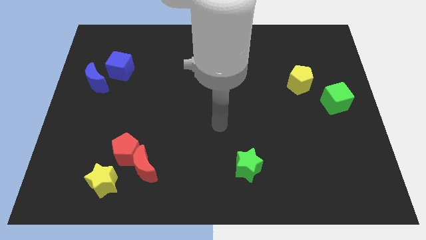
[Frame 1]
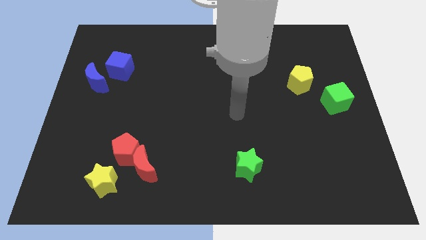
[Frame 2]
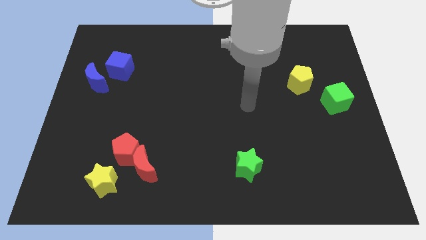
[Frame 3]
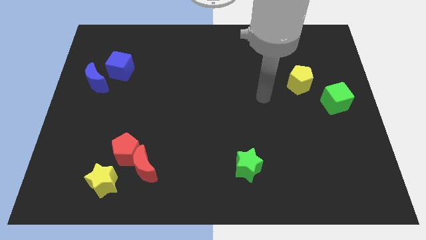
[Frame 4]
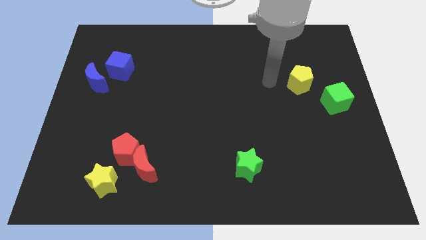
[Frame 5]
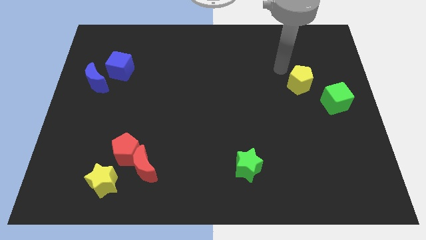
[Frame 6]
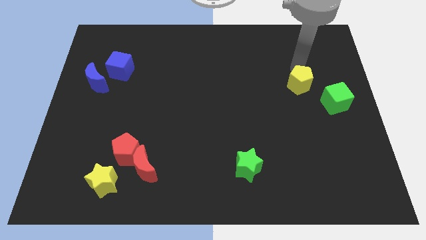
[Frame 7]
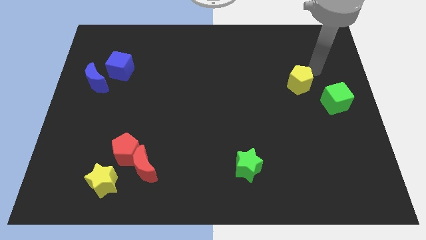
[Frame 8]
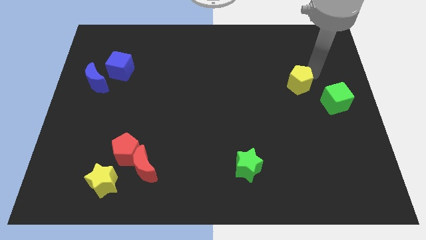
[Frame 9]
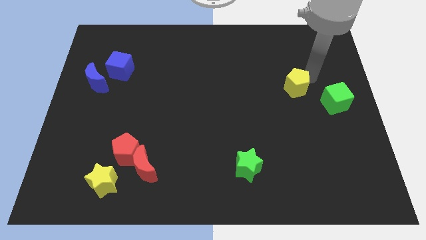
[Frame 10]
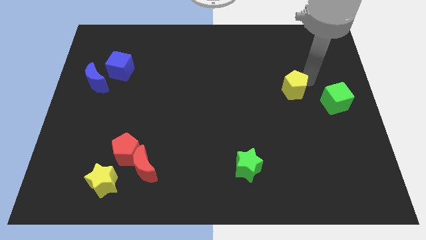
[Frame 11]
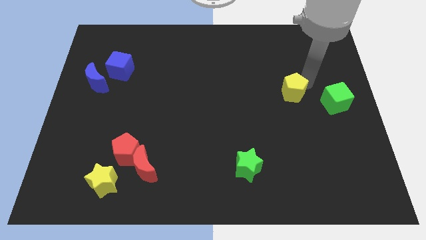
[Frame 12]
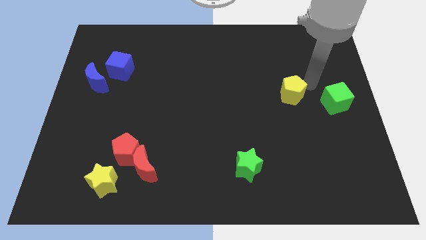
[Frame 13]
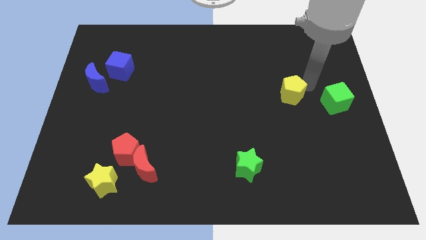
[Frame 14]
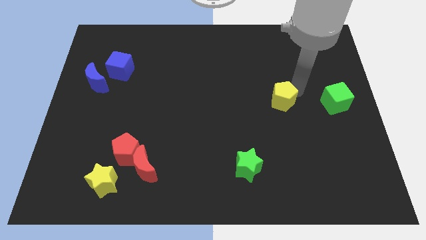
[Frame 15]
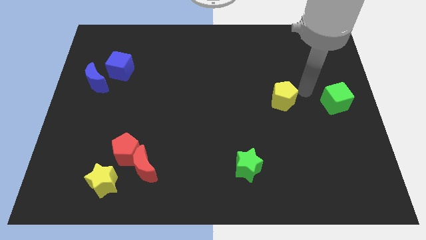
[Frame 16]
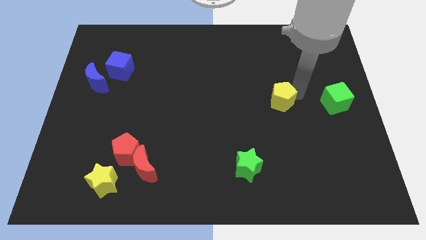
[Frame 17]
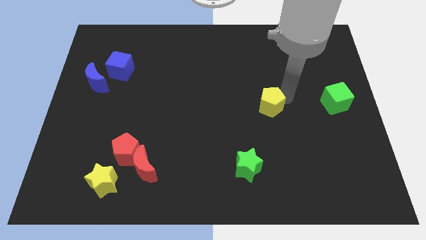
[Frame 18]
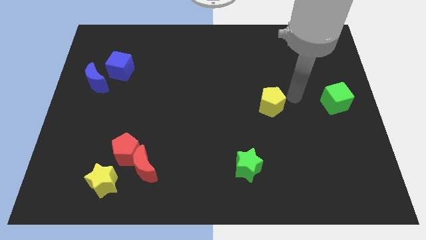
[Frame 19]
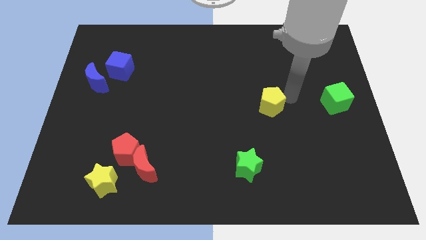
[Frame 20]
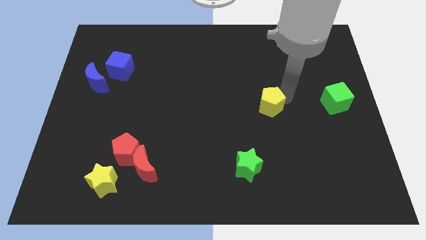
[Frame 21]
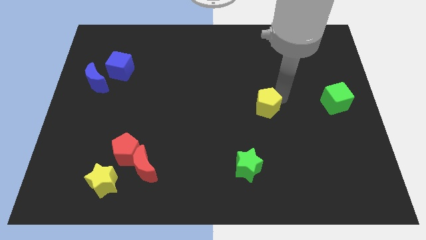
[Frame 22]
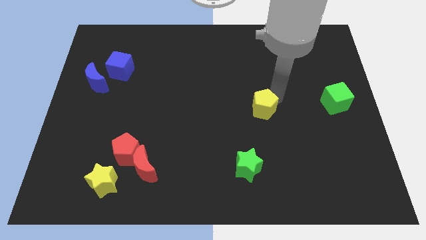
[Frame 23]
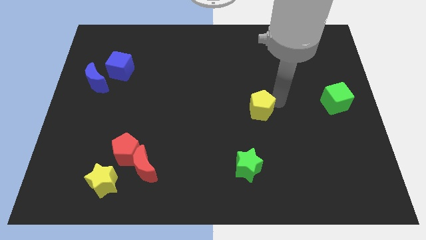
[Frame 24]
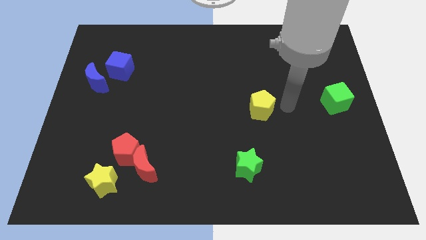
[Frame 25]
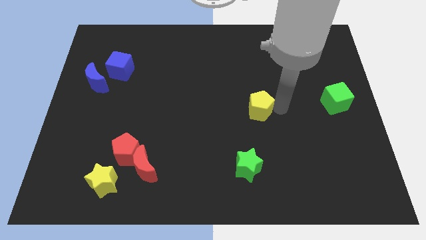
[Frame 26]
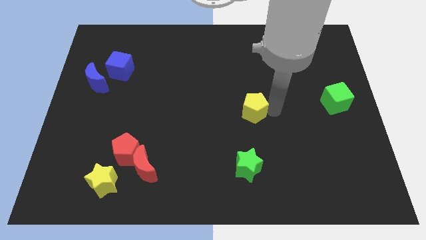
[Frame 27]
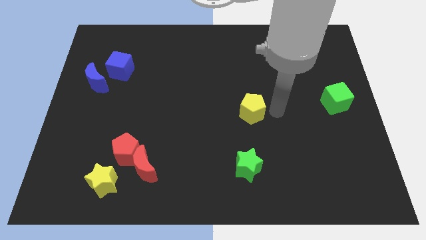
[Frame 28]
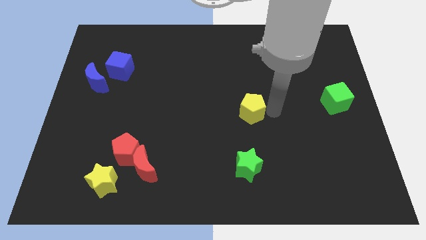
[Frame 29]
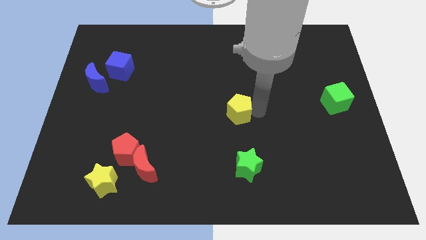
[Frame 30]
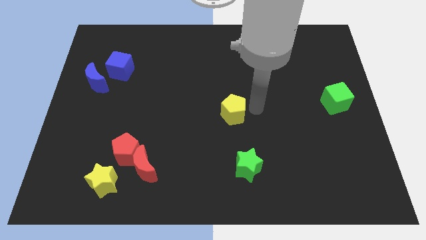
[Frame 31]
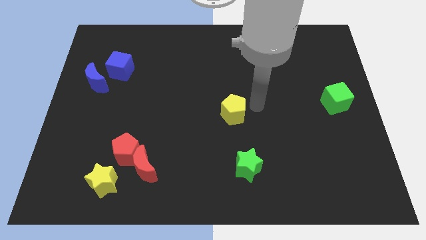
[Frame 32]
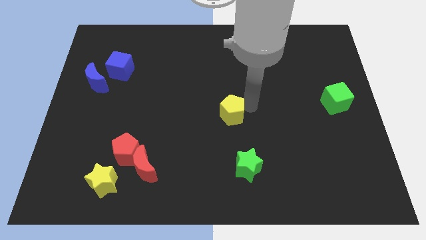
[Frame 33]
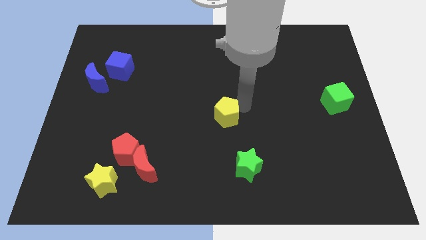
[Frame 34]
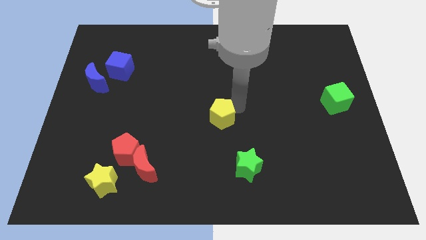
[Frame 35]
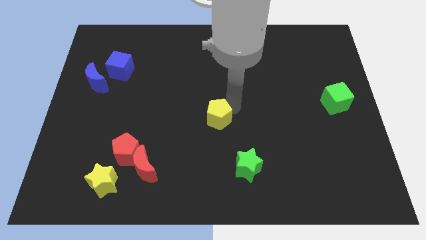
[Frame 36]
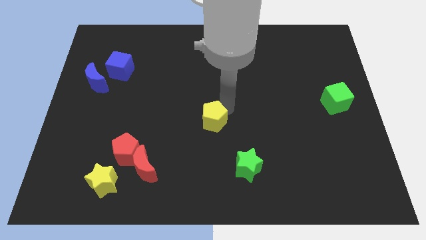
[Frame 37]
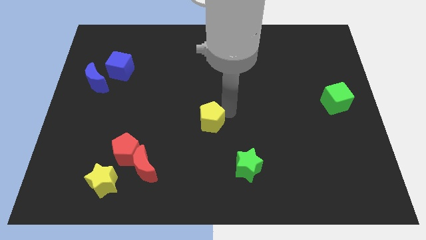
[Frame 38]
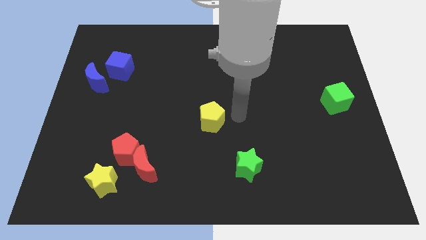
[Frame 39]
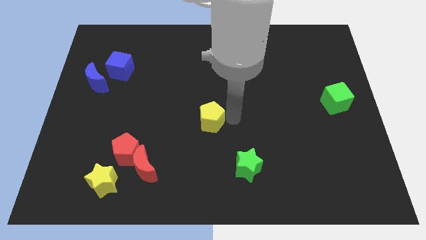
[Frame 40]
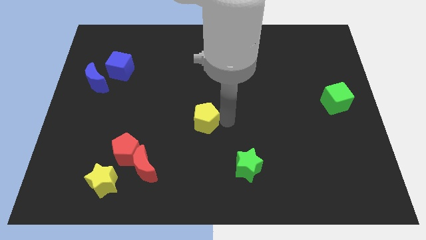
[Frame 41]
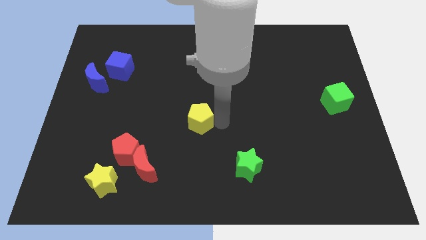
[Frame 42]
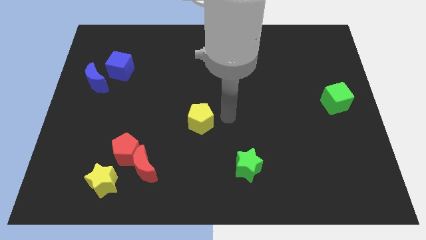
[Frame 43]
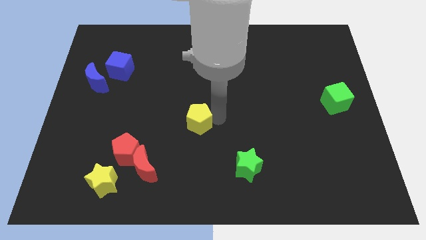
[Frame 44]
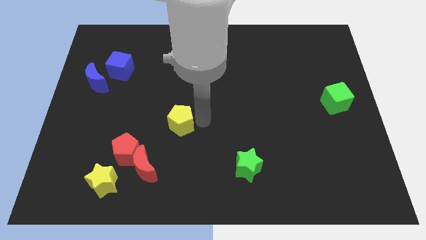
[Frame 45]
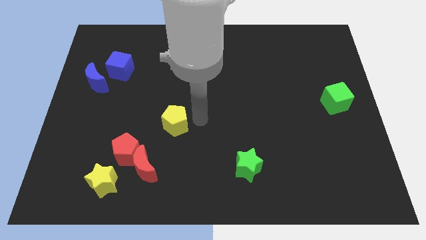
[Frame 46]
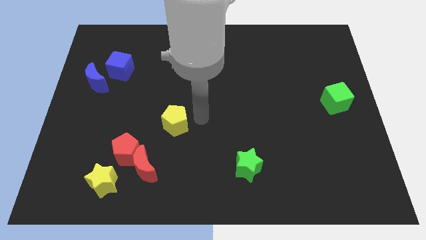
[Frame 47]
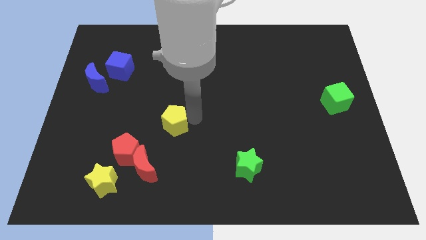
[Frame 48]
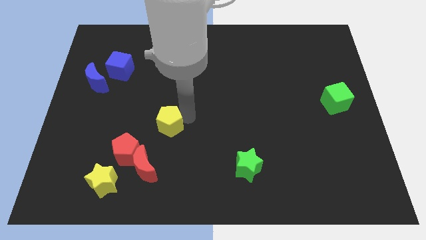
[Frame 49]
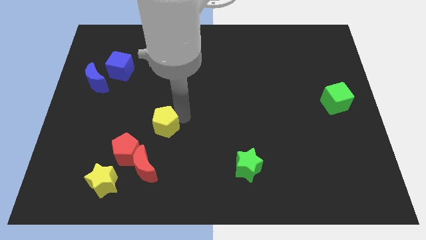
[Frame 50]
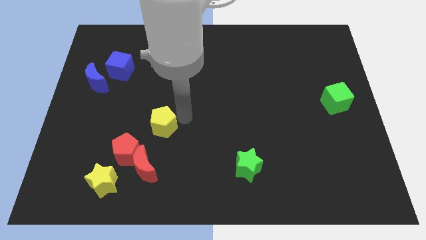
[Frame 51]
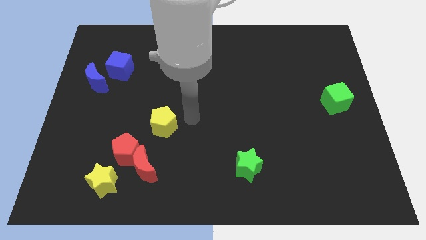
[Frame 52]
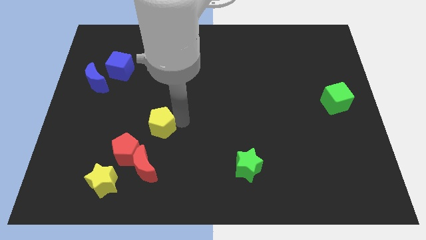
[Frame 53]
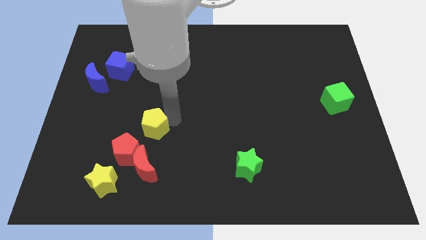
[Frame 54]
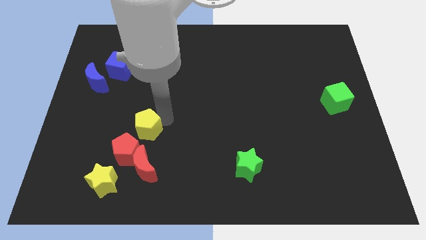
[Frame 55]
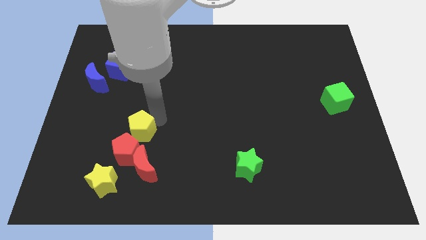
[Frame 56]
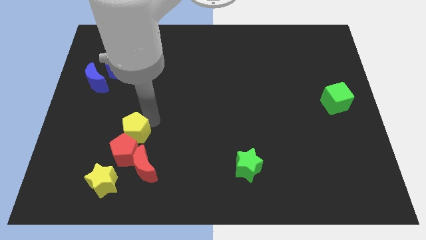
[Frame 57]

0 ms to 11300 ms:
slide the yellow pentagon to the top left side of the red moon

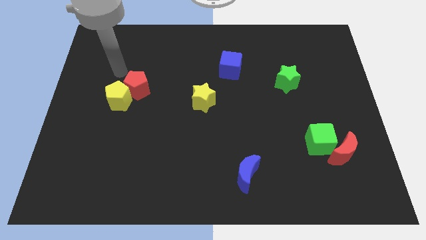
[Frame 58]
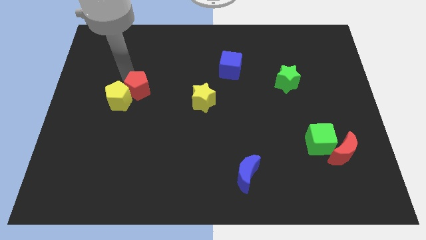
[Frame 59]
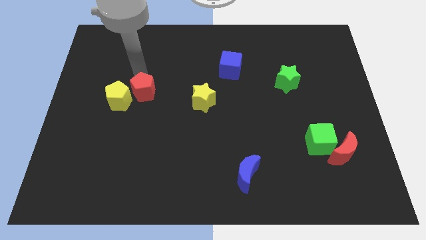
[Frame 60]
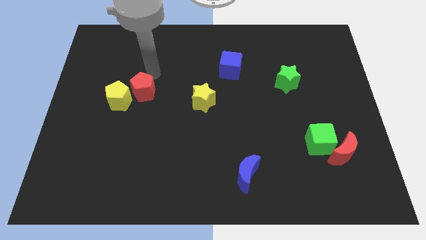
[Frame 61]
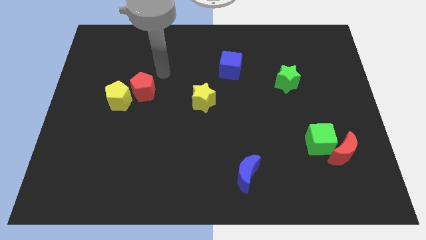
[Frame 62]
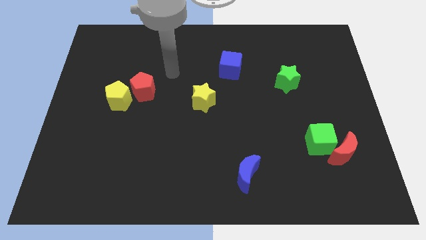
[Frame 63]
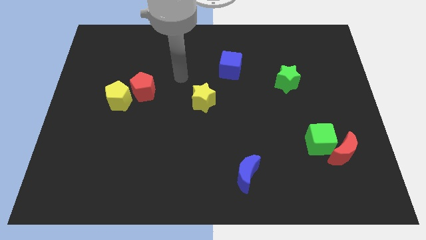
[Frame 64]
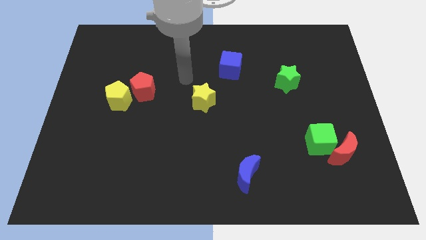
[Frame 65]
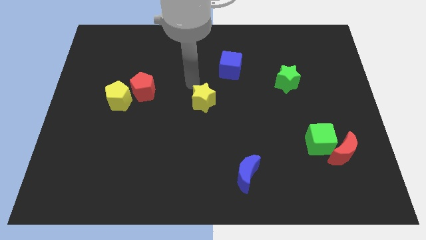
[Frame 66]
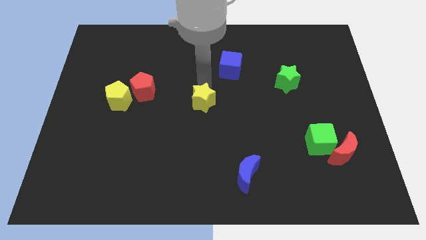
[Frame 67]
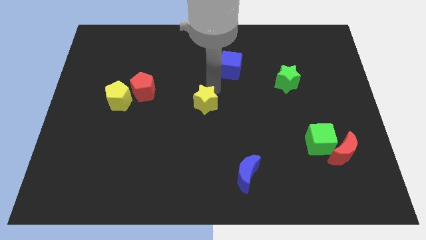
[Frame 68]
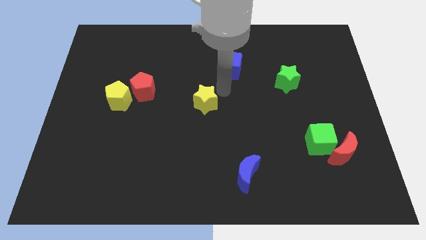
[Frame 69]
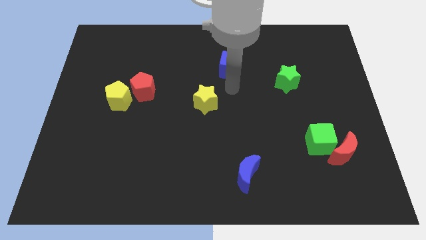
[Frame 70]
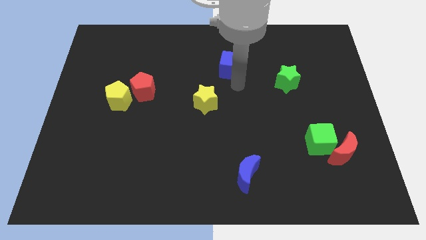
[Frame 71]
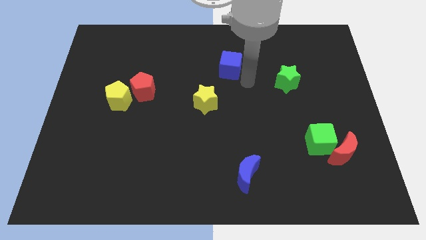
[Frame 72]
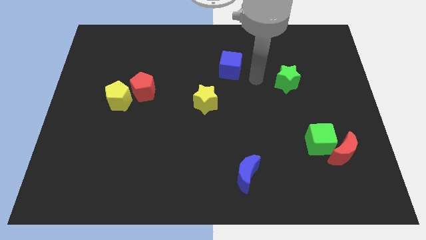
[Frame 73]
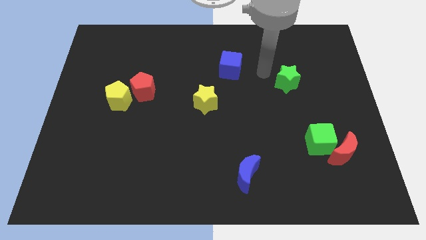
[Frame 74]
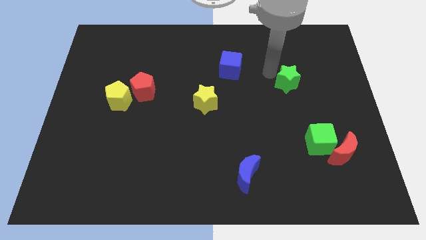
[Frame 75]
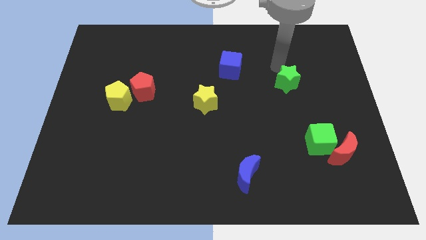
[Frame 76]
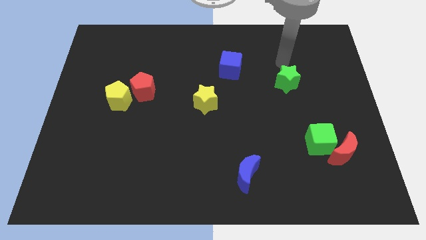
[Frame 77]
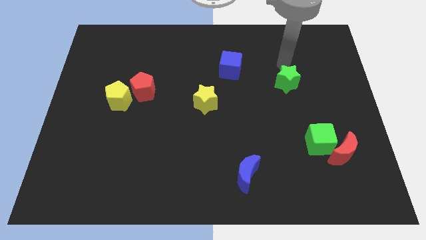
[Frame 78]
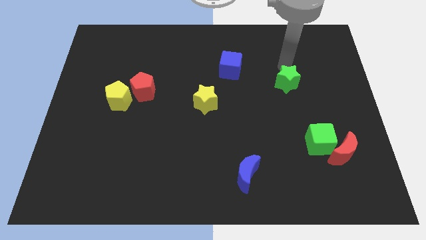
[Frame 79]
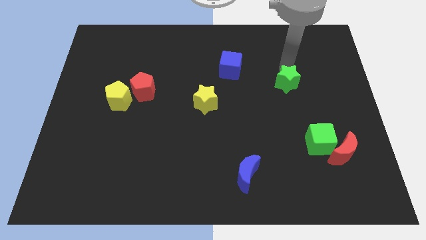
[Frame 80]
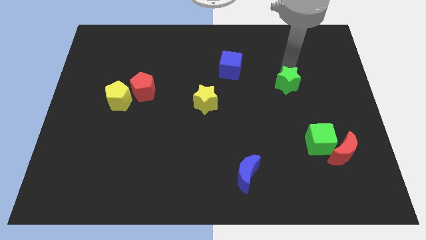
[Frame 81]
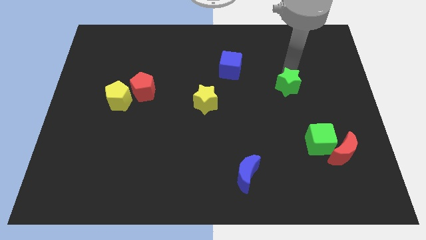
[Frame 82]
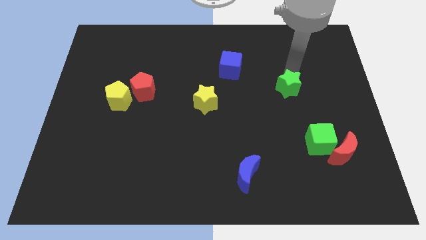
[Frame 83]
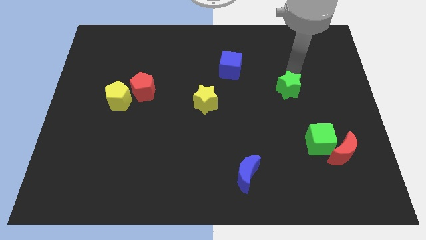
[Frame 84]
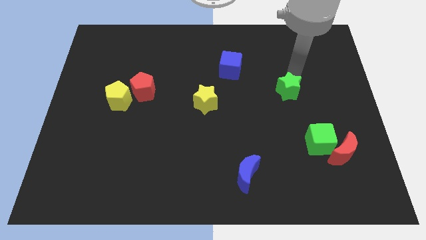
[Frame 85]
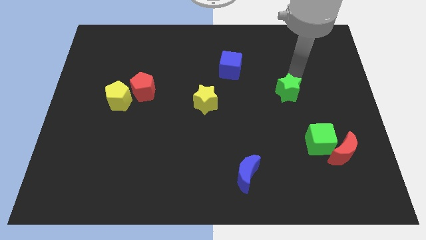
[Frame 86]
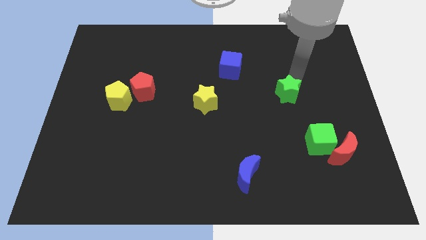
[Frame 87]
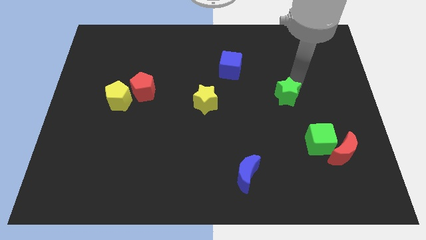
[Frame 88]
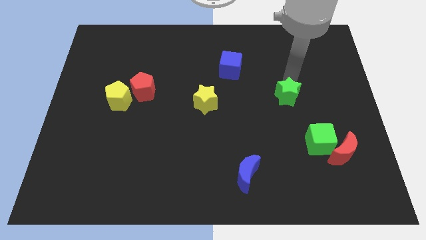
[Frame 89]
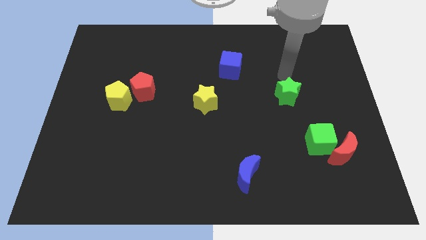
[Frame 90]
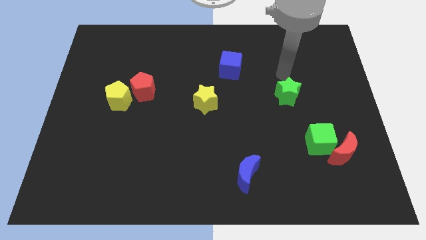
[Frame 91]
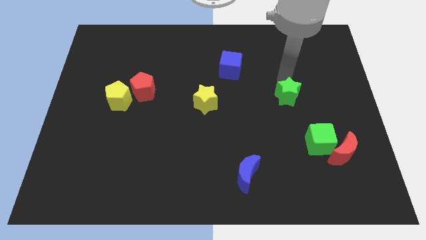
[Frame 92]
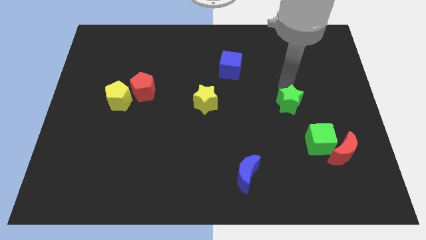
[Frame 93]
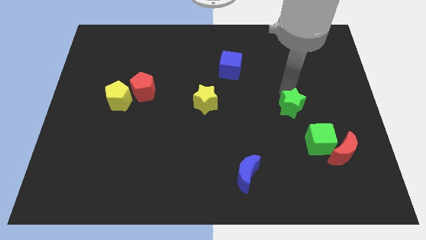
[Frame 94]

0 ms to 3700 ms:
put the green star diagonally up and to the left of the green cube
